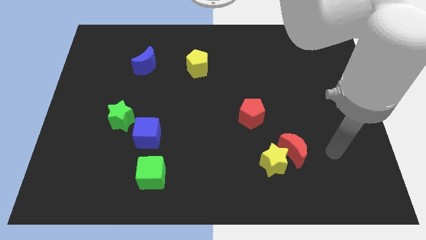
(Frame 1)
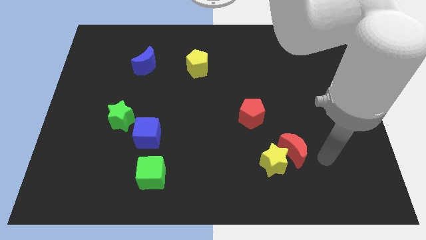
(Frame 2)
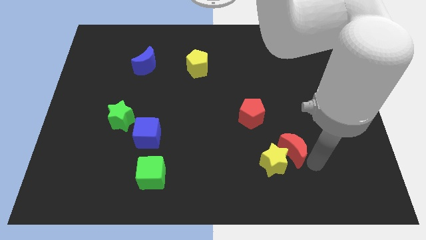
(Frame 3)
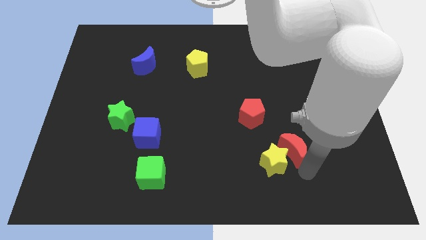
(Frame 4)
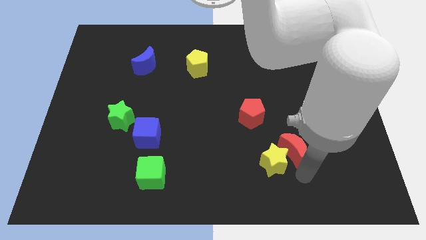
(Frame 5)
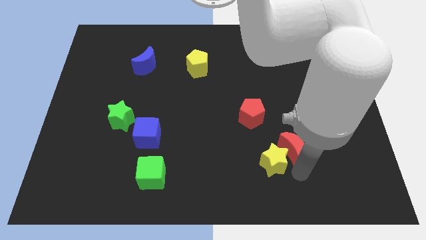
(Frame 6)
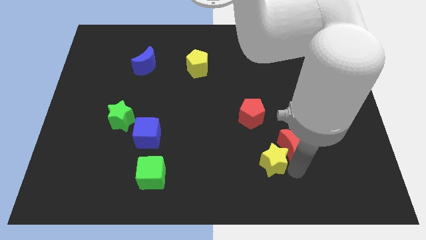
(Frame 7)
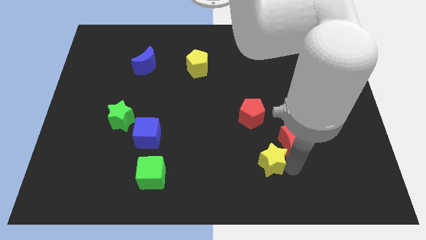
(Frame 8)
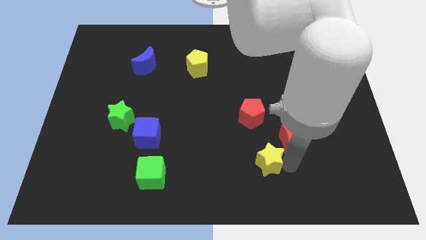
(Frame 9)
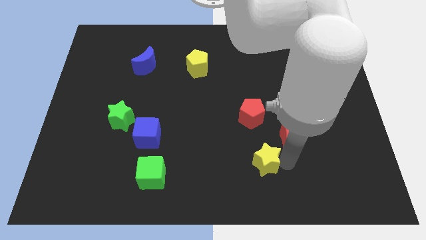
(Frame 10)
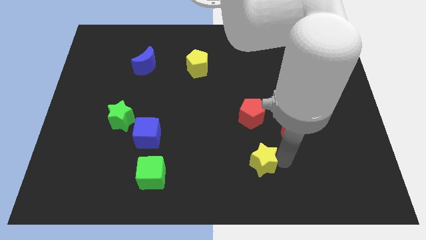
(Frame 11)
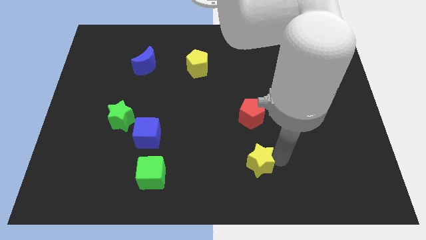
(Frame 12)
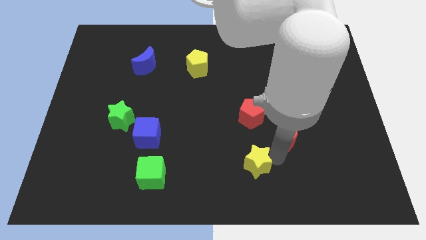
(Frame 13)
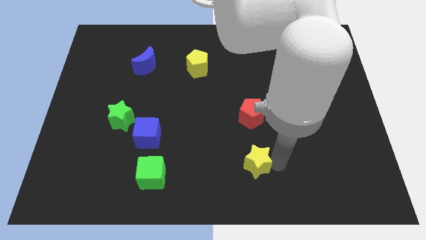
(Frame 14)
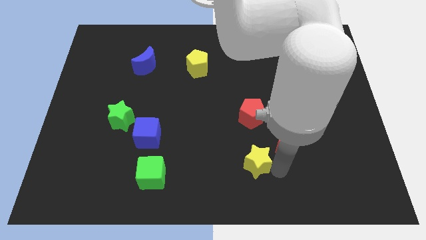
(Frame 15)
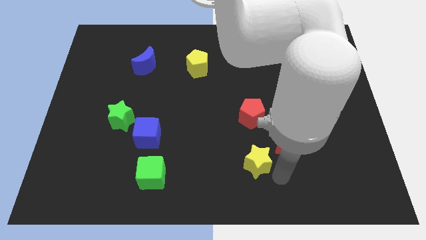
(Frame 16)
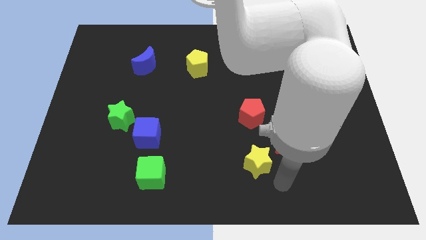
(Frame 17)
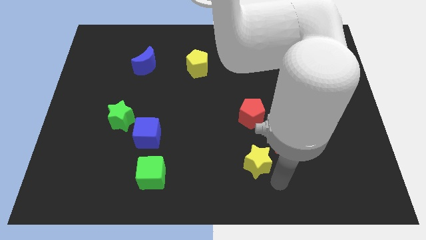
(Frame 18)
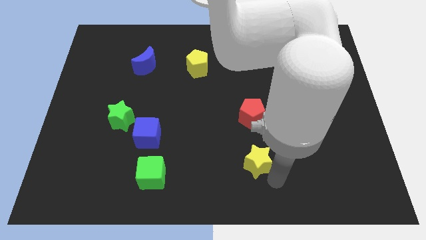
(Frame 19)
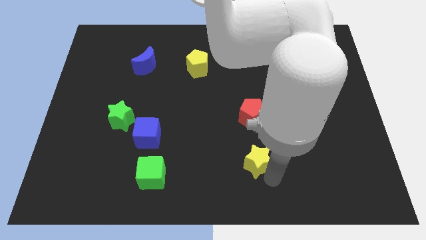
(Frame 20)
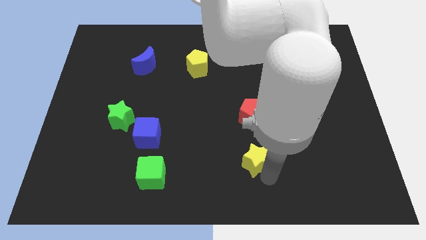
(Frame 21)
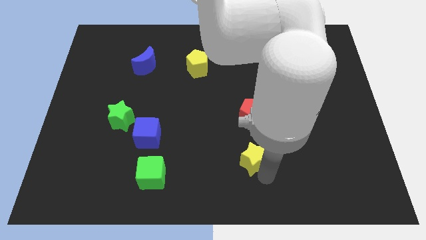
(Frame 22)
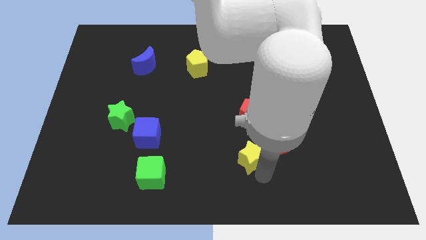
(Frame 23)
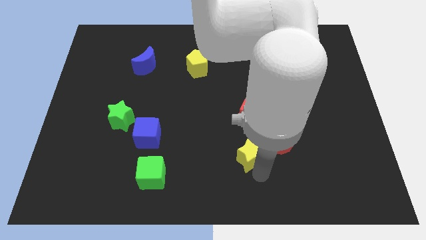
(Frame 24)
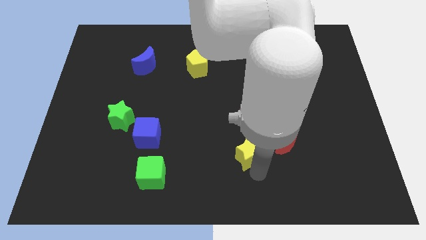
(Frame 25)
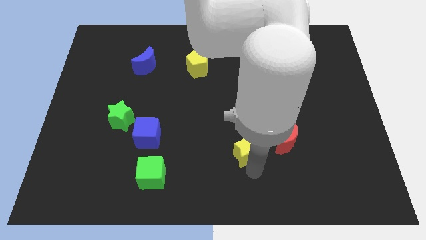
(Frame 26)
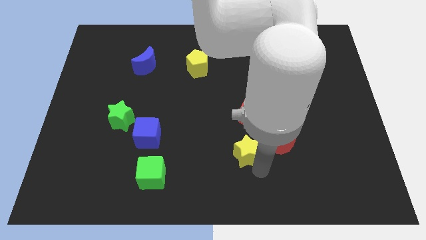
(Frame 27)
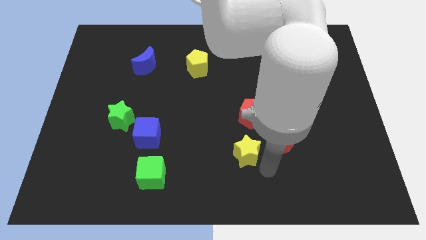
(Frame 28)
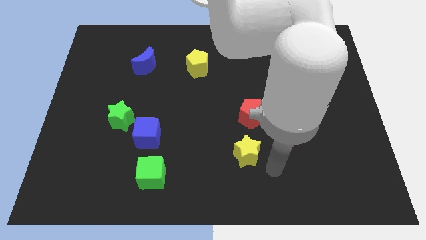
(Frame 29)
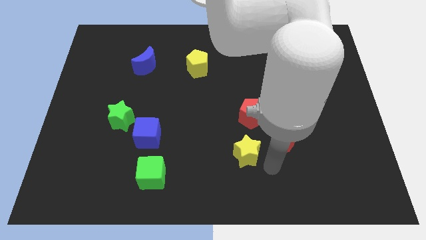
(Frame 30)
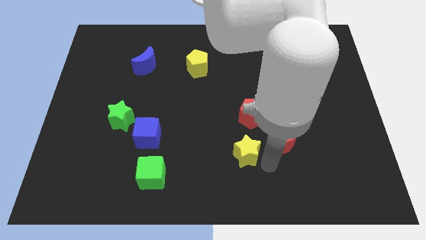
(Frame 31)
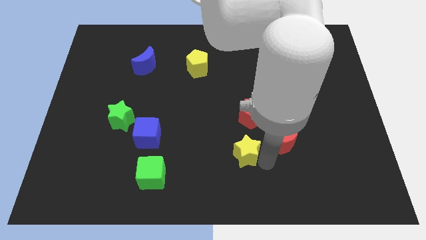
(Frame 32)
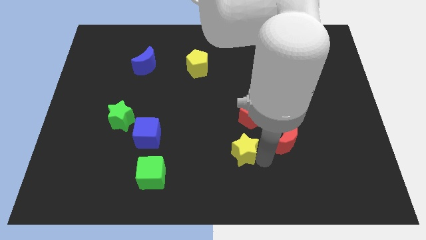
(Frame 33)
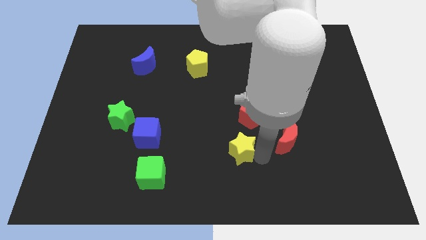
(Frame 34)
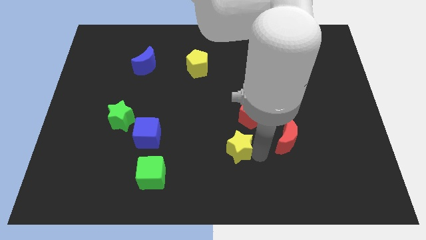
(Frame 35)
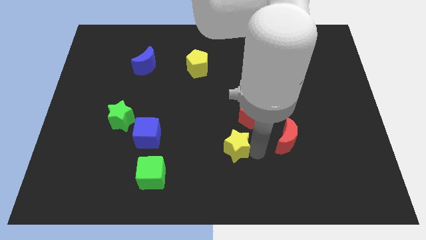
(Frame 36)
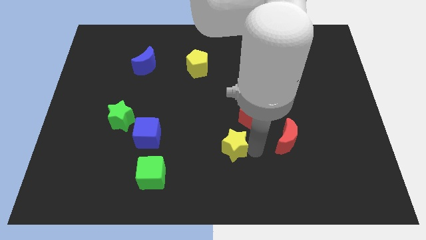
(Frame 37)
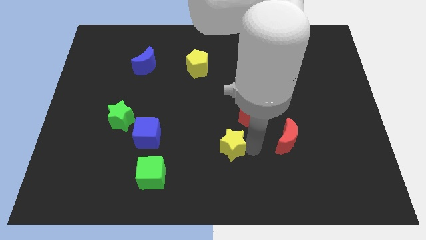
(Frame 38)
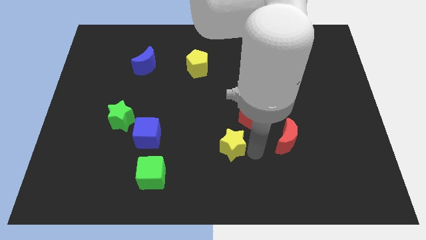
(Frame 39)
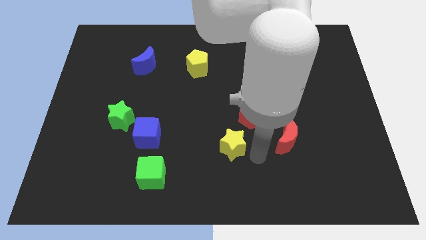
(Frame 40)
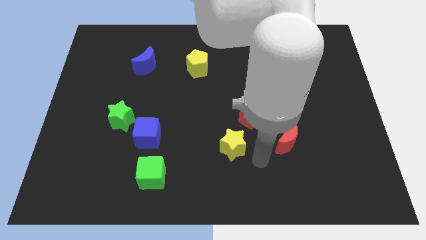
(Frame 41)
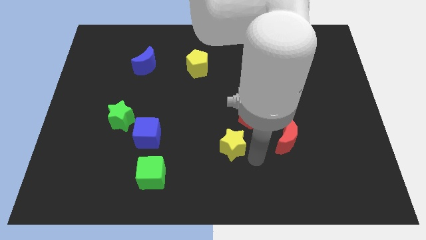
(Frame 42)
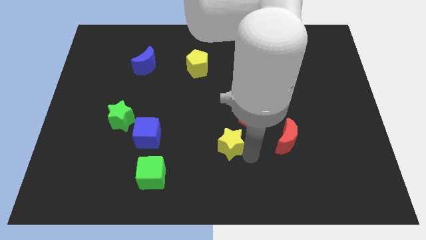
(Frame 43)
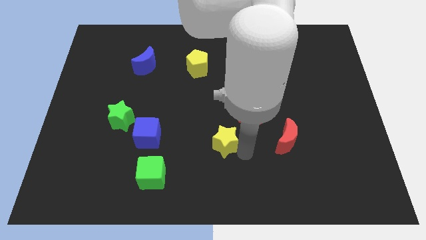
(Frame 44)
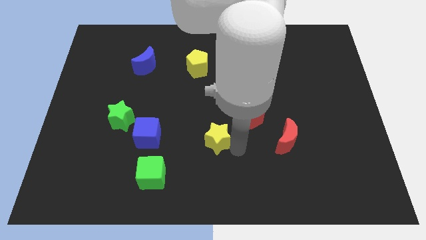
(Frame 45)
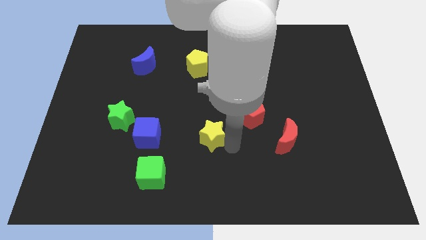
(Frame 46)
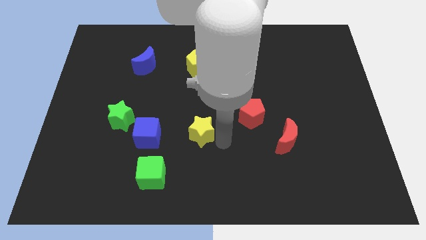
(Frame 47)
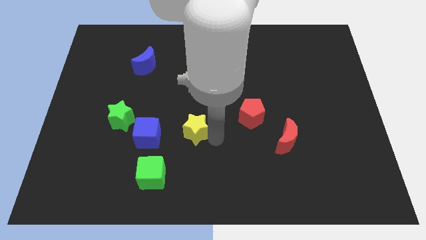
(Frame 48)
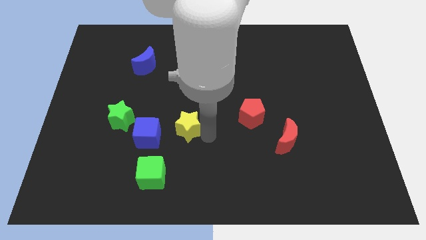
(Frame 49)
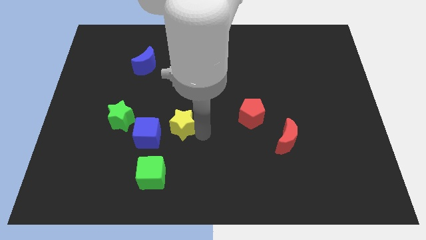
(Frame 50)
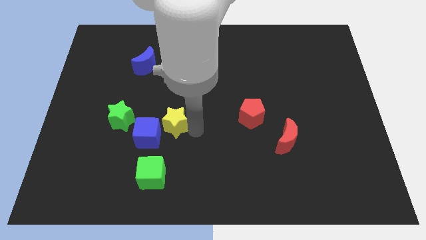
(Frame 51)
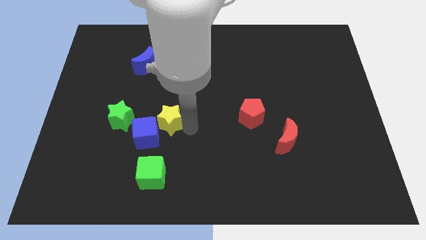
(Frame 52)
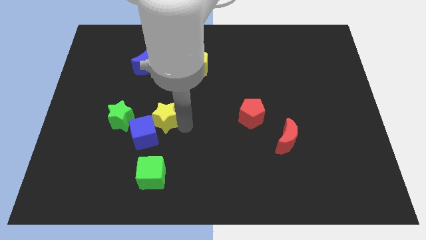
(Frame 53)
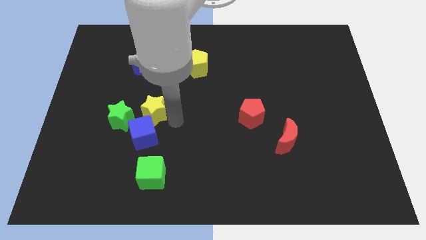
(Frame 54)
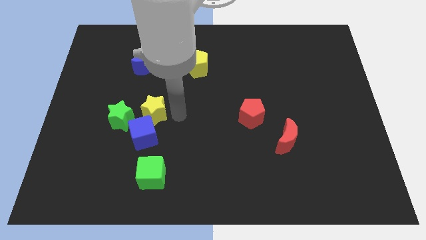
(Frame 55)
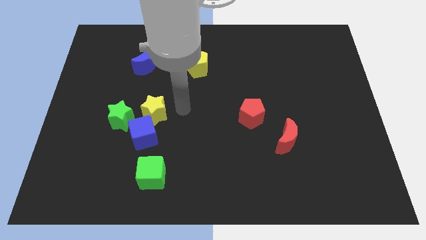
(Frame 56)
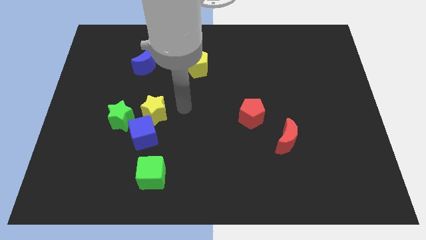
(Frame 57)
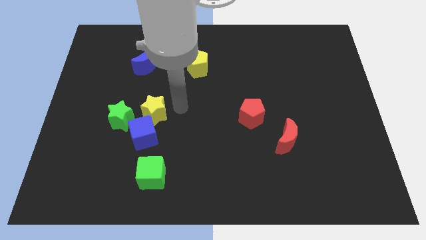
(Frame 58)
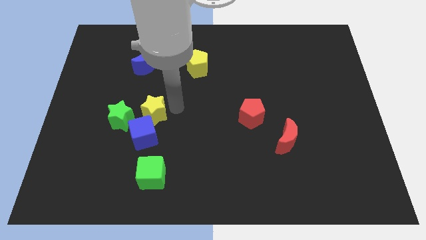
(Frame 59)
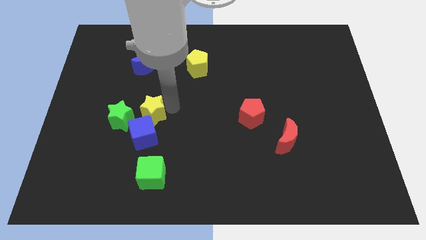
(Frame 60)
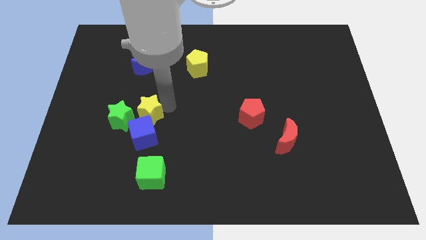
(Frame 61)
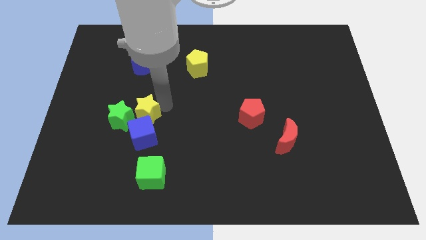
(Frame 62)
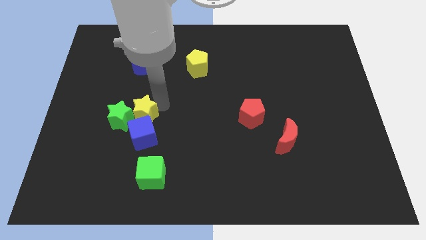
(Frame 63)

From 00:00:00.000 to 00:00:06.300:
move the yellow star towards the green star
